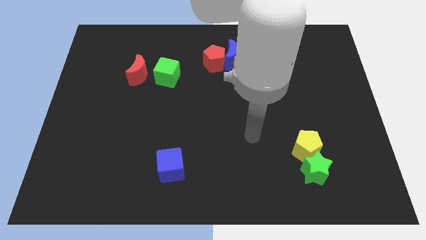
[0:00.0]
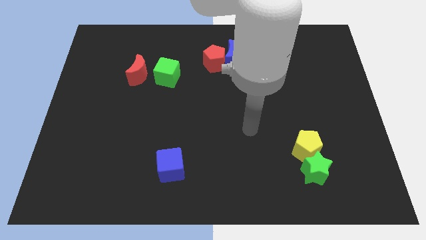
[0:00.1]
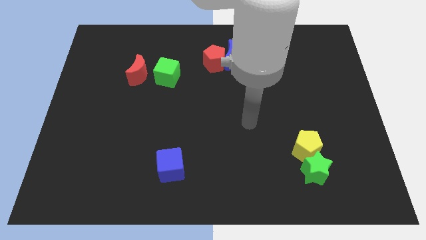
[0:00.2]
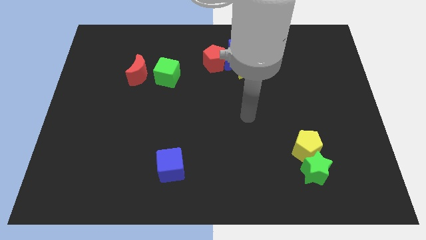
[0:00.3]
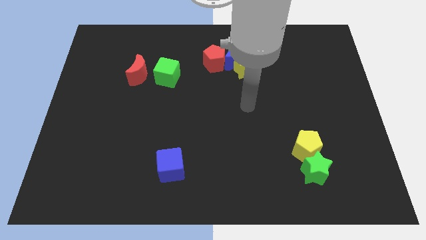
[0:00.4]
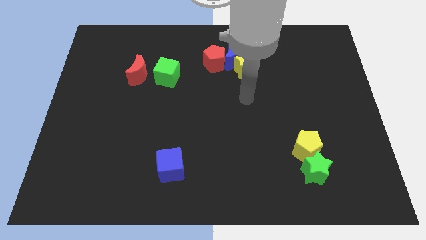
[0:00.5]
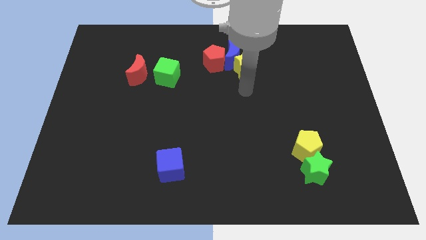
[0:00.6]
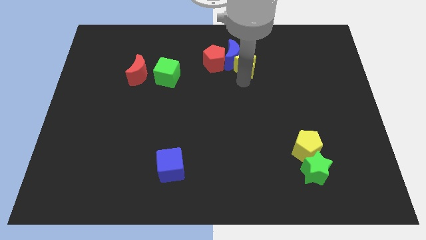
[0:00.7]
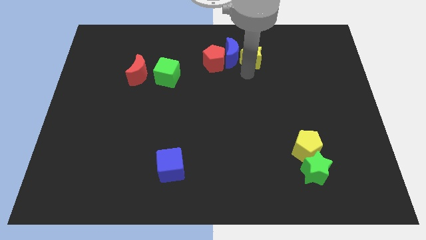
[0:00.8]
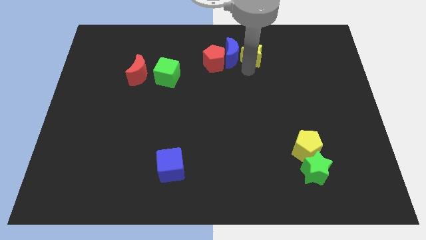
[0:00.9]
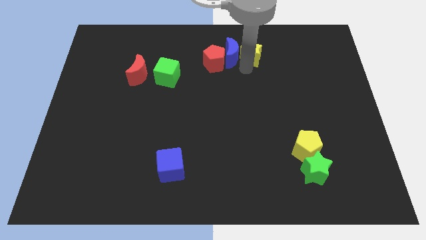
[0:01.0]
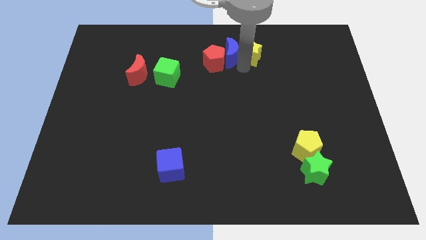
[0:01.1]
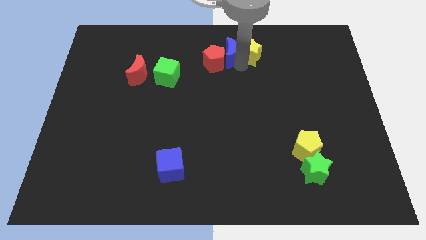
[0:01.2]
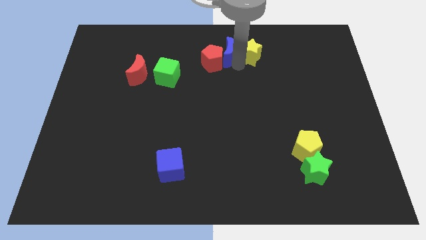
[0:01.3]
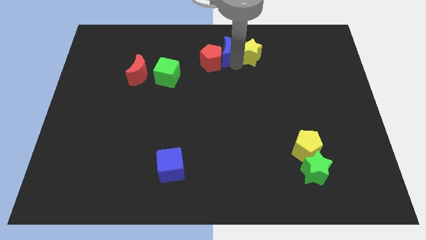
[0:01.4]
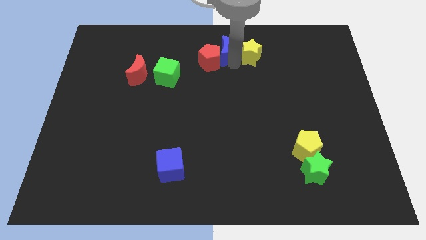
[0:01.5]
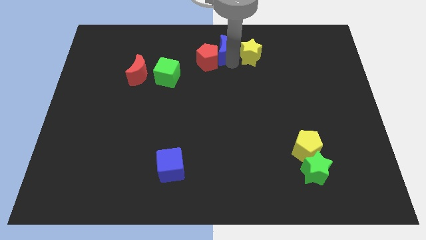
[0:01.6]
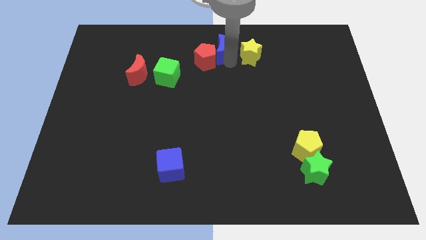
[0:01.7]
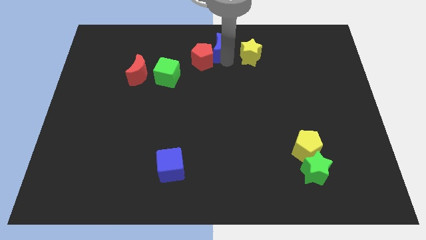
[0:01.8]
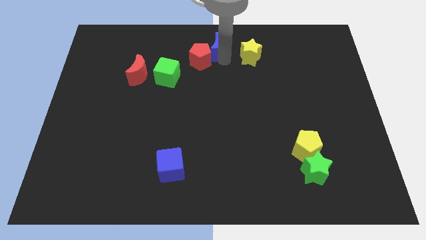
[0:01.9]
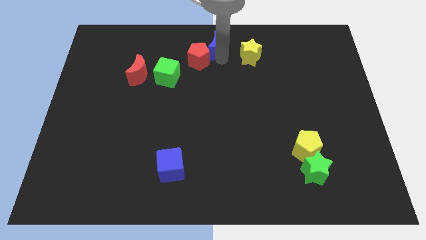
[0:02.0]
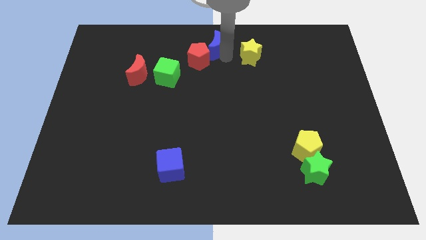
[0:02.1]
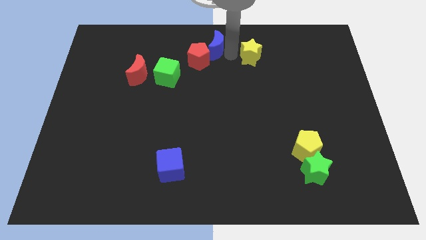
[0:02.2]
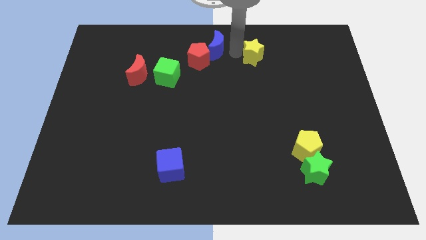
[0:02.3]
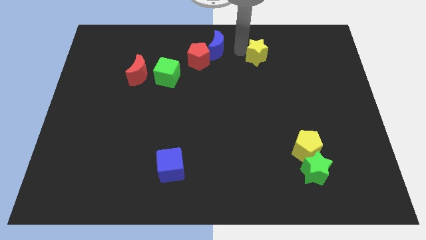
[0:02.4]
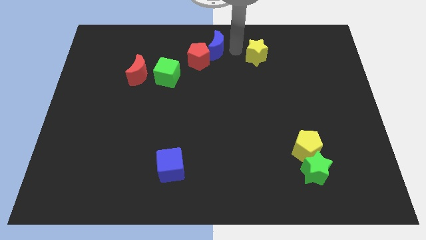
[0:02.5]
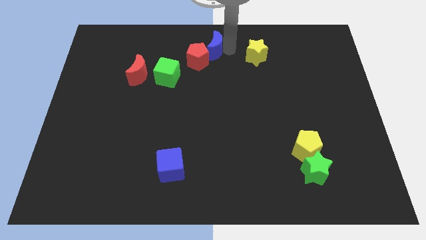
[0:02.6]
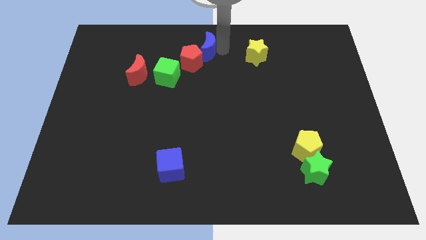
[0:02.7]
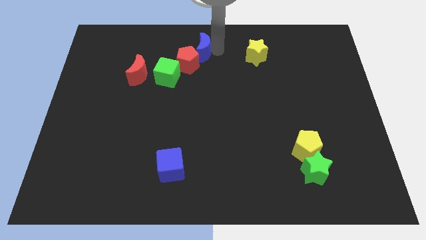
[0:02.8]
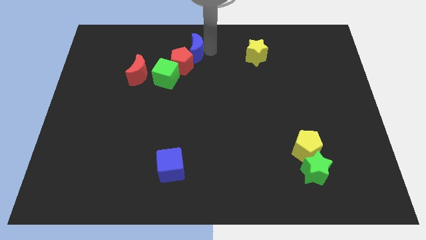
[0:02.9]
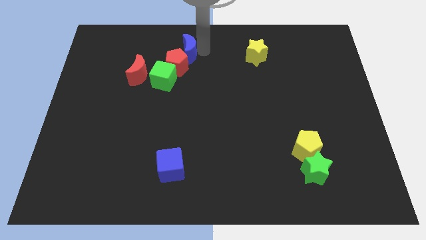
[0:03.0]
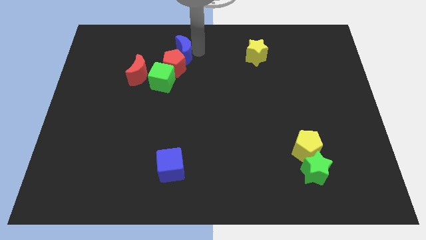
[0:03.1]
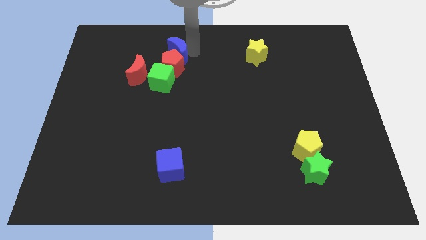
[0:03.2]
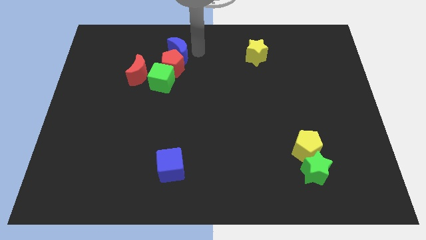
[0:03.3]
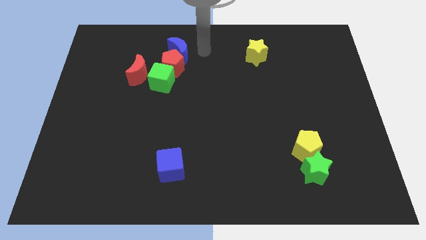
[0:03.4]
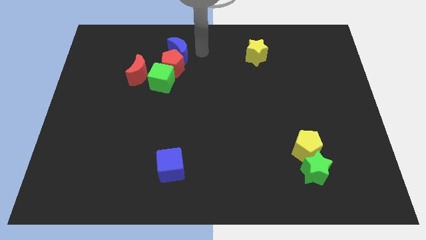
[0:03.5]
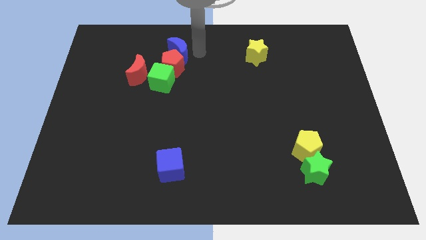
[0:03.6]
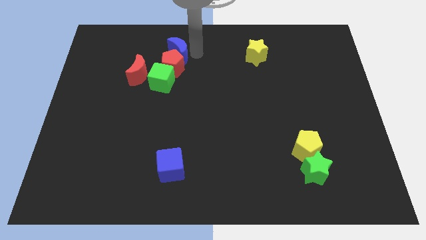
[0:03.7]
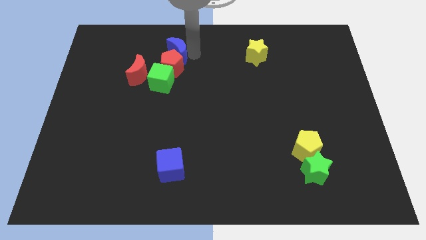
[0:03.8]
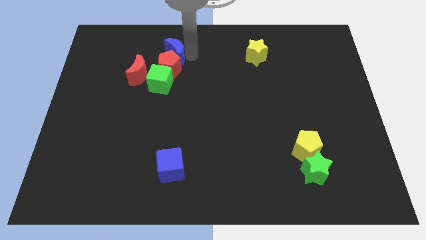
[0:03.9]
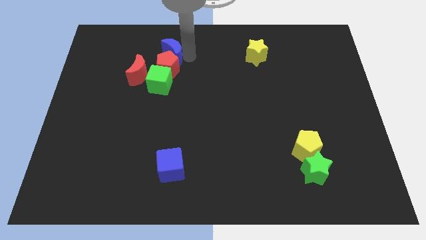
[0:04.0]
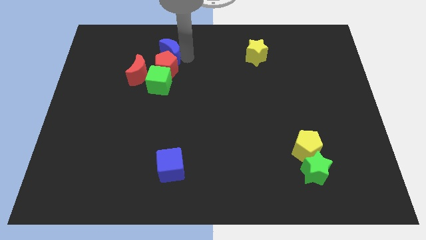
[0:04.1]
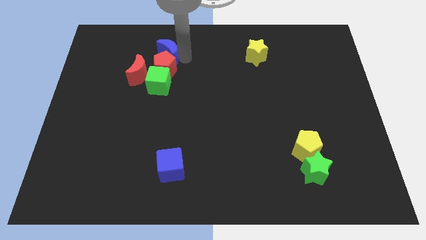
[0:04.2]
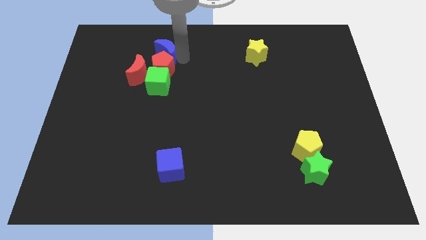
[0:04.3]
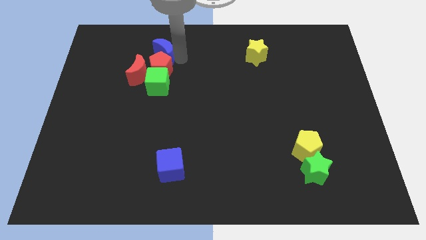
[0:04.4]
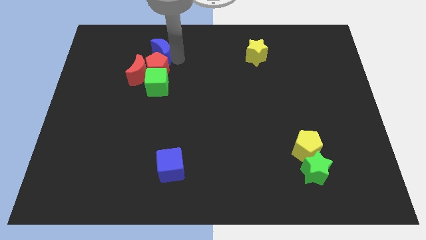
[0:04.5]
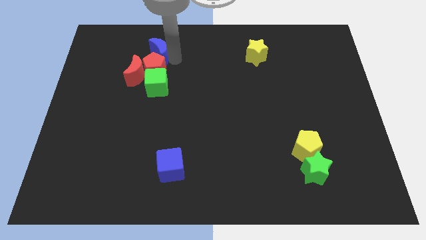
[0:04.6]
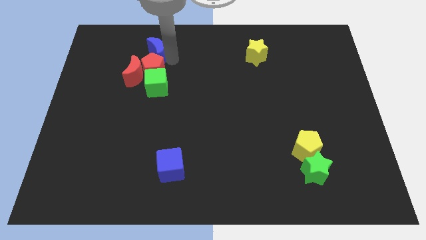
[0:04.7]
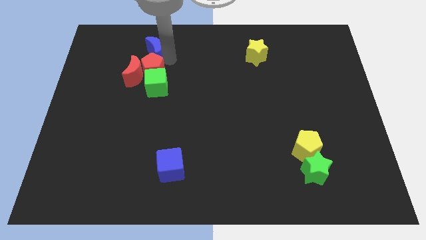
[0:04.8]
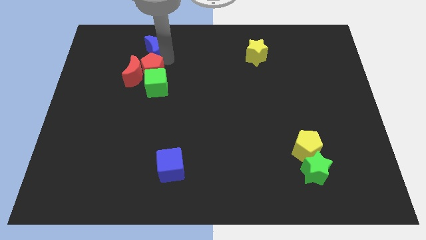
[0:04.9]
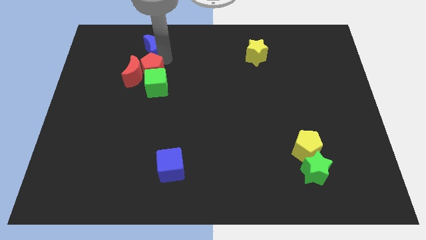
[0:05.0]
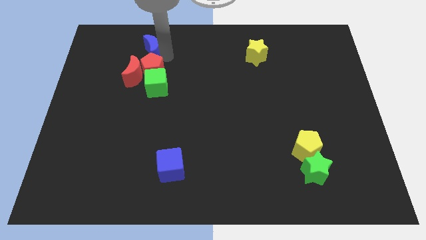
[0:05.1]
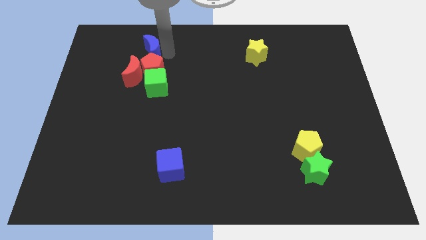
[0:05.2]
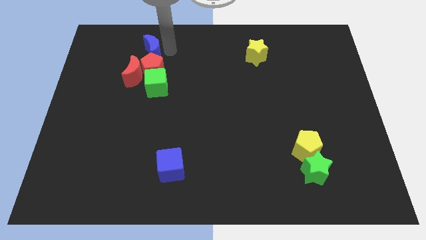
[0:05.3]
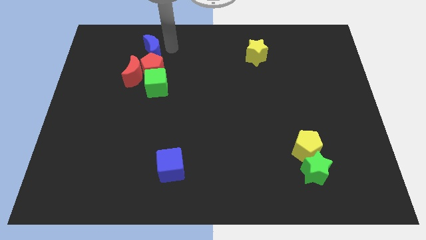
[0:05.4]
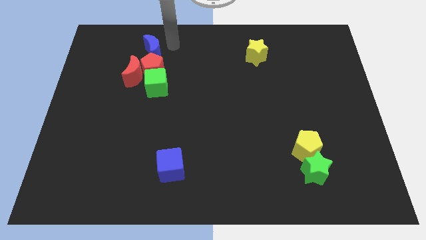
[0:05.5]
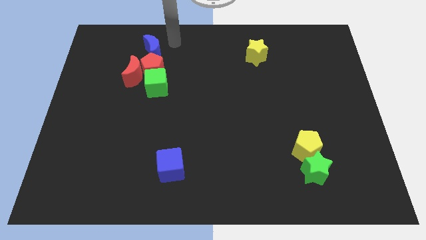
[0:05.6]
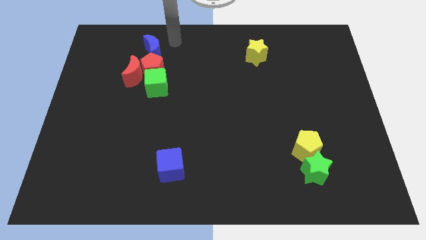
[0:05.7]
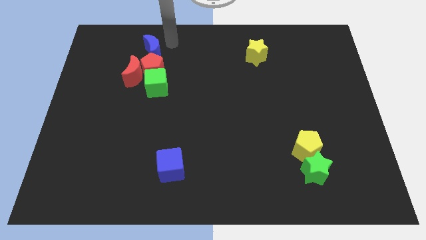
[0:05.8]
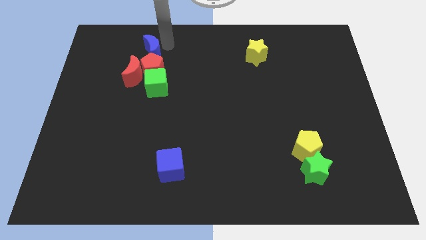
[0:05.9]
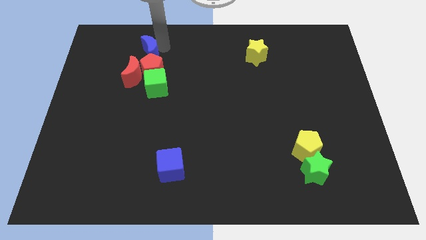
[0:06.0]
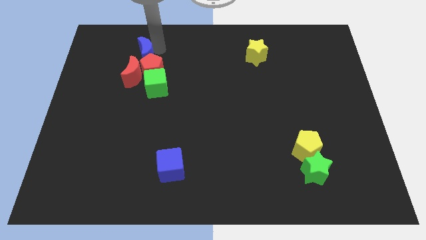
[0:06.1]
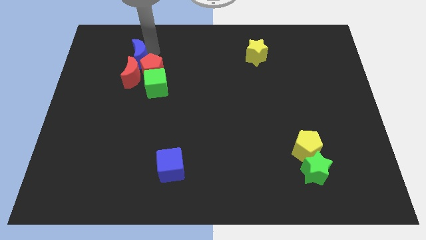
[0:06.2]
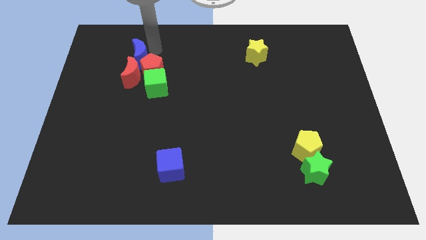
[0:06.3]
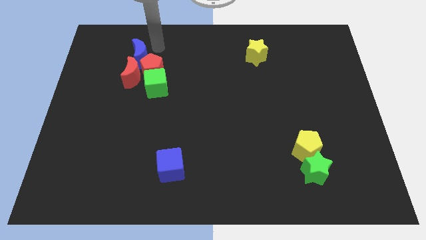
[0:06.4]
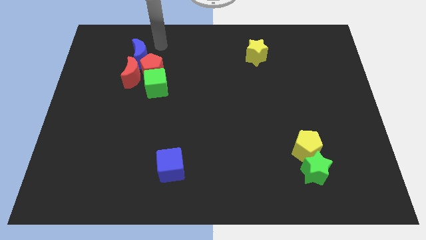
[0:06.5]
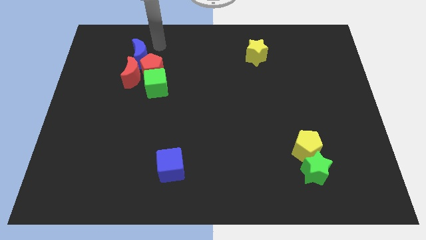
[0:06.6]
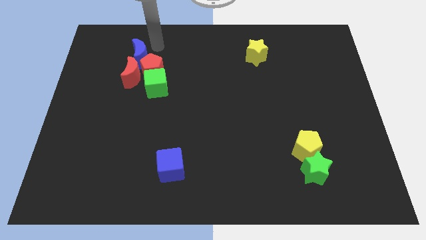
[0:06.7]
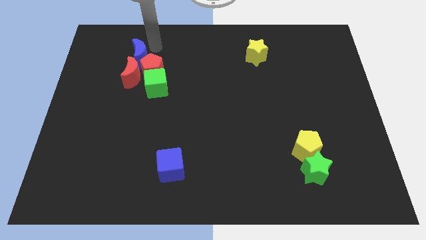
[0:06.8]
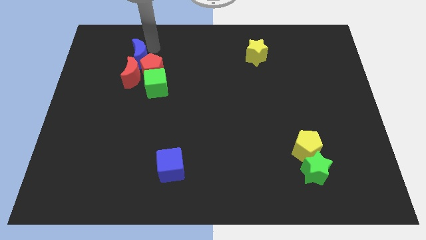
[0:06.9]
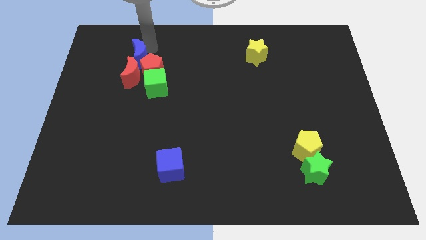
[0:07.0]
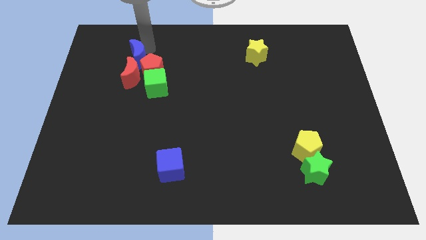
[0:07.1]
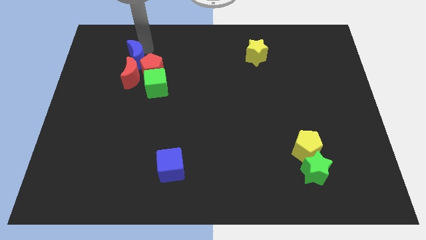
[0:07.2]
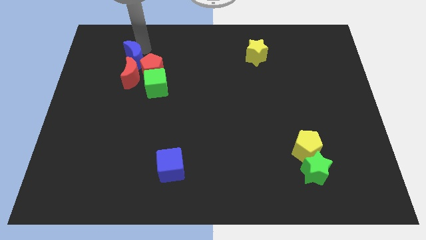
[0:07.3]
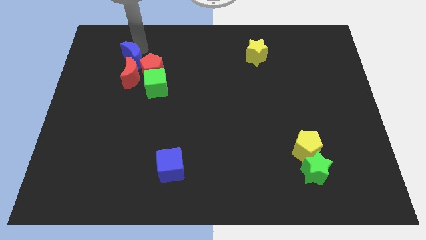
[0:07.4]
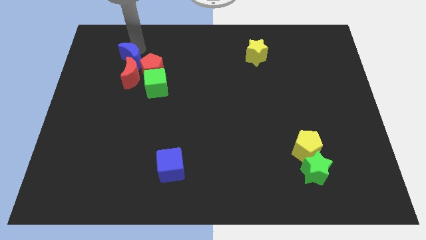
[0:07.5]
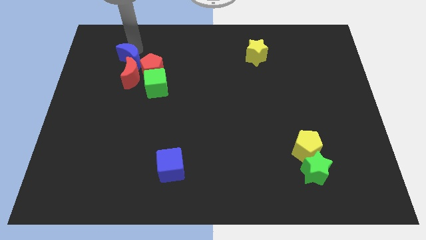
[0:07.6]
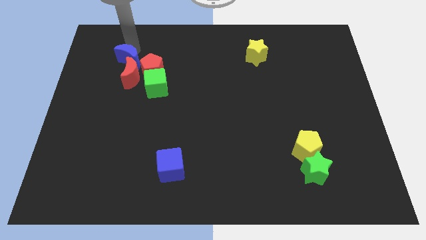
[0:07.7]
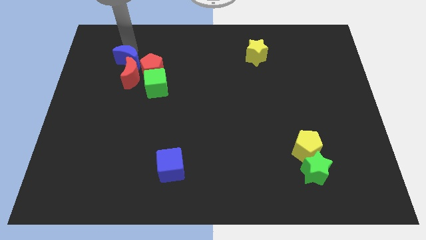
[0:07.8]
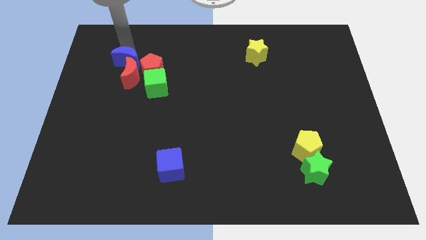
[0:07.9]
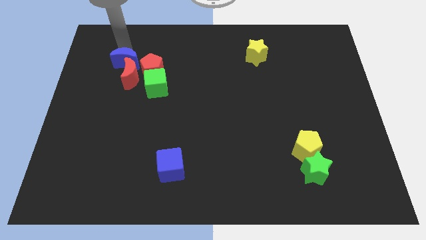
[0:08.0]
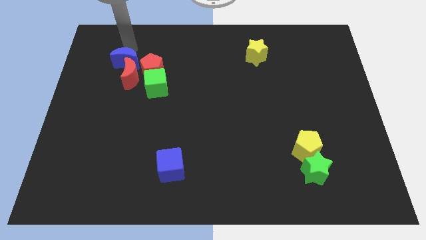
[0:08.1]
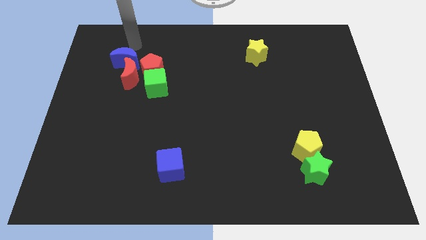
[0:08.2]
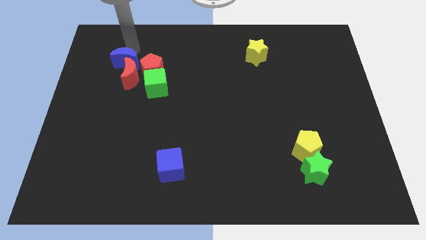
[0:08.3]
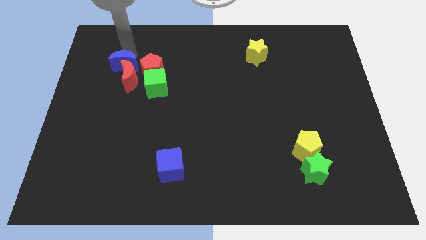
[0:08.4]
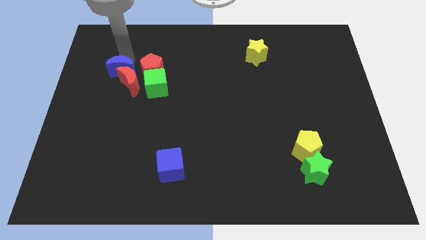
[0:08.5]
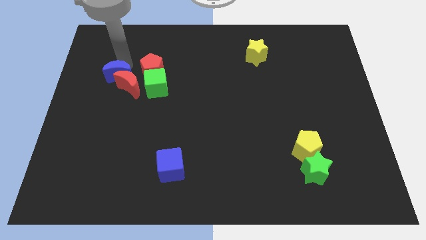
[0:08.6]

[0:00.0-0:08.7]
move the blue moon left of the green cube
